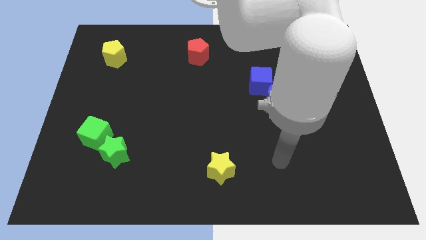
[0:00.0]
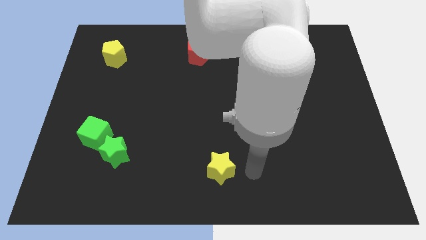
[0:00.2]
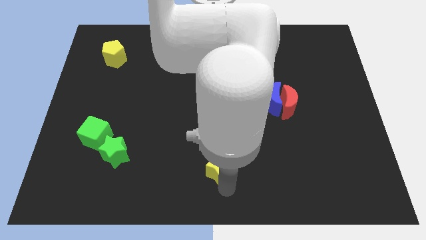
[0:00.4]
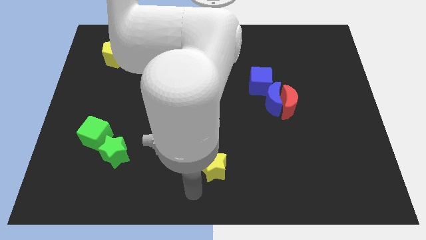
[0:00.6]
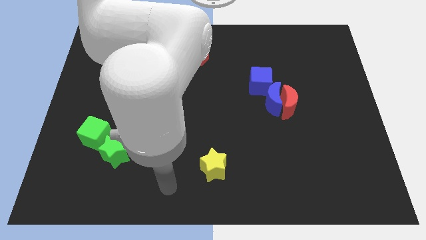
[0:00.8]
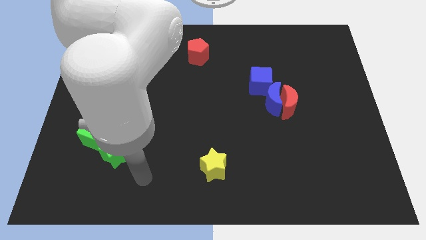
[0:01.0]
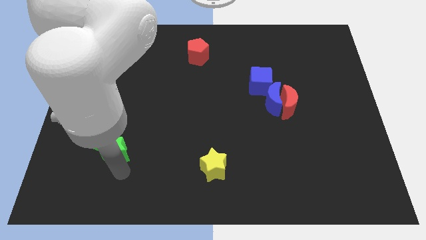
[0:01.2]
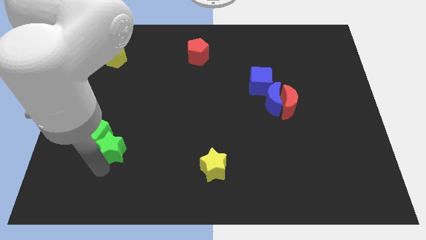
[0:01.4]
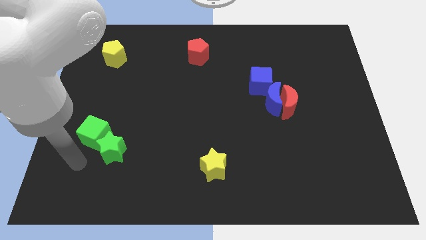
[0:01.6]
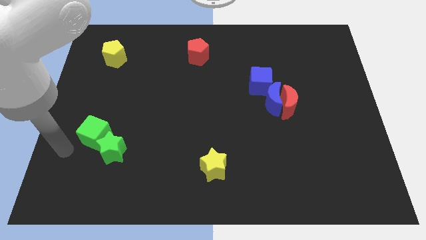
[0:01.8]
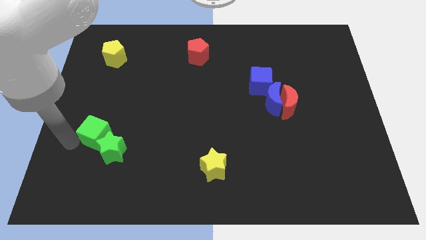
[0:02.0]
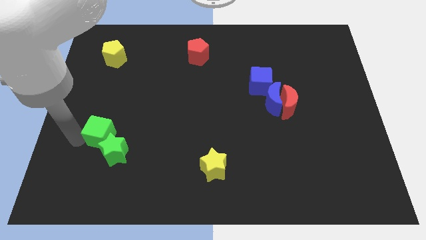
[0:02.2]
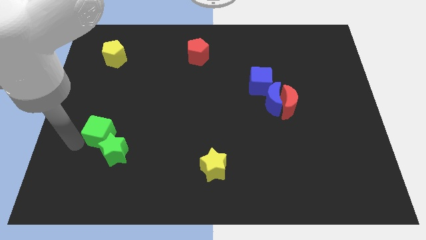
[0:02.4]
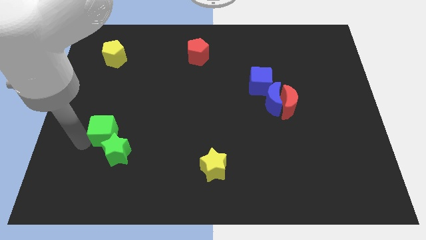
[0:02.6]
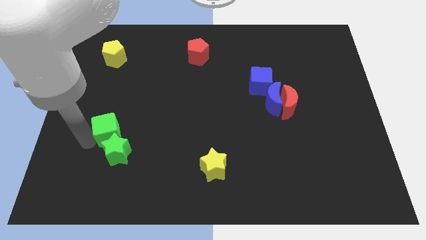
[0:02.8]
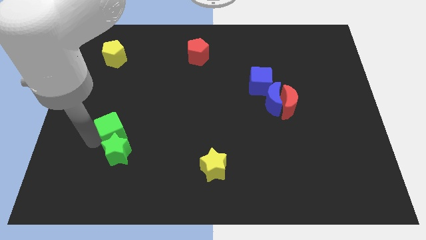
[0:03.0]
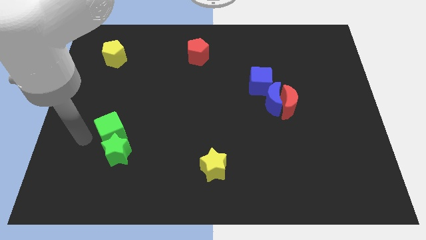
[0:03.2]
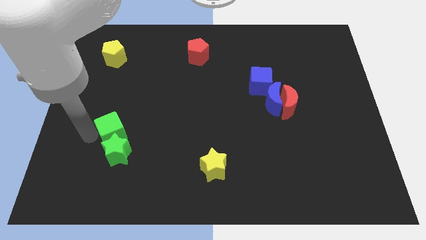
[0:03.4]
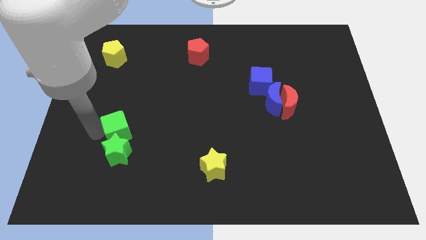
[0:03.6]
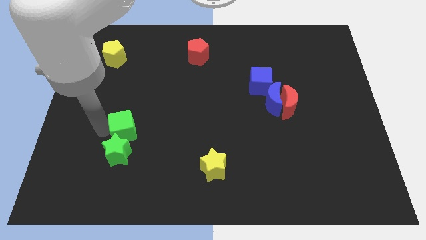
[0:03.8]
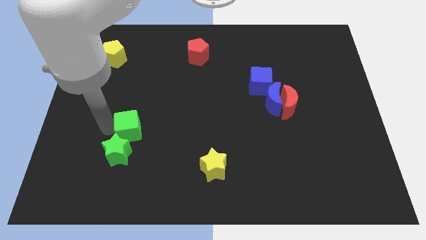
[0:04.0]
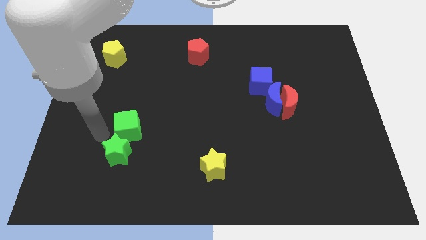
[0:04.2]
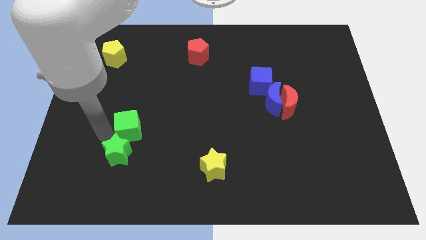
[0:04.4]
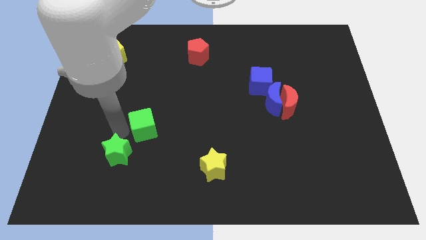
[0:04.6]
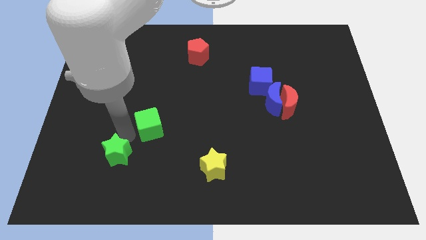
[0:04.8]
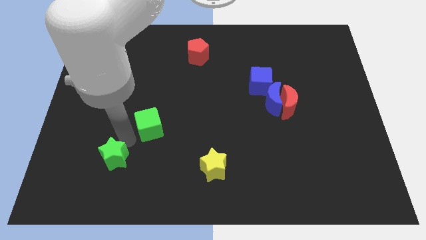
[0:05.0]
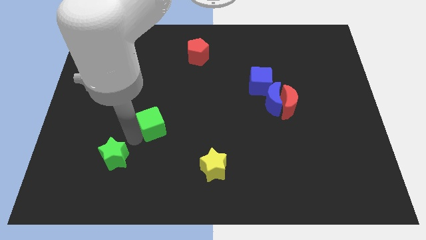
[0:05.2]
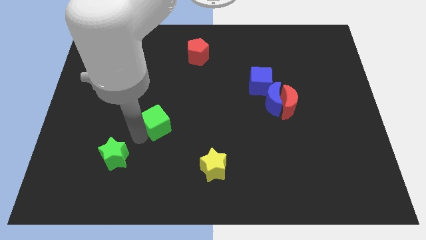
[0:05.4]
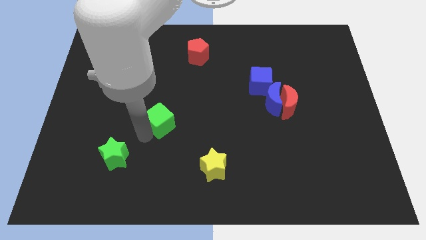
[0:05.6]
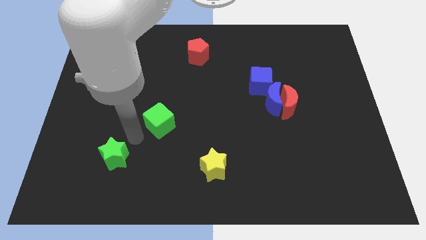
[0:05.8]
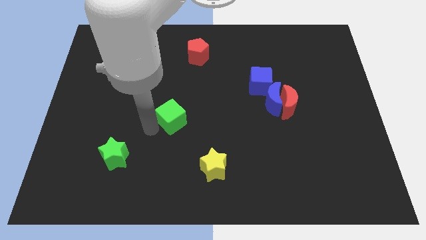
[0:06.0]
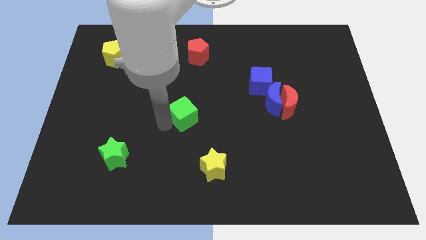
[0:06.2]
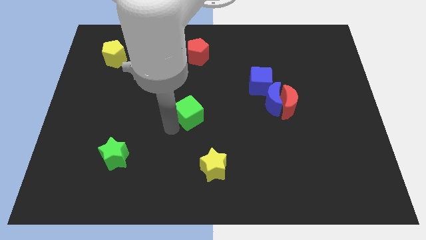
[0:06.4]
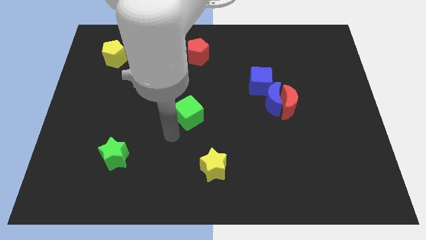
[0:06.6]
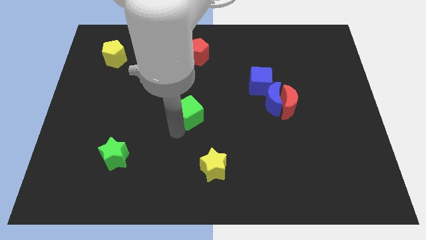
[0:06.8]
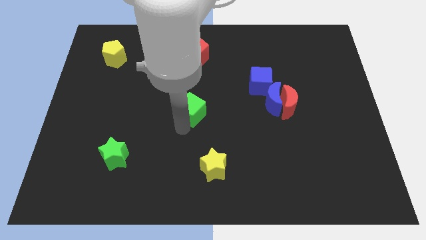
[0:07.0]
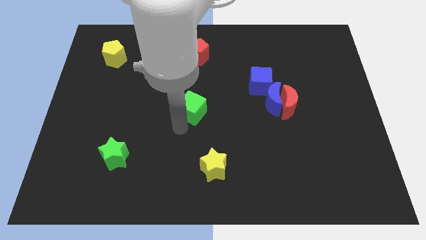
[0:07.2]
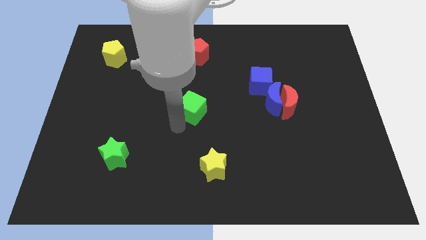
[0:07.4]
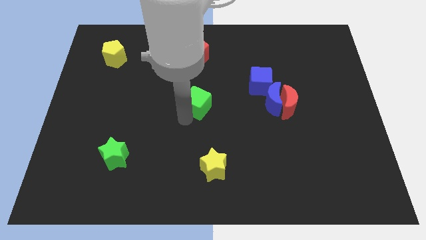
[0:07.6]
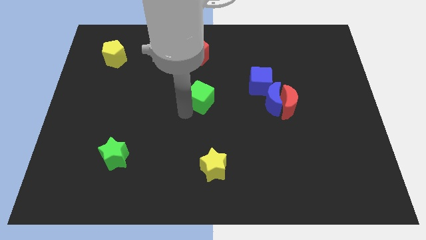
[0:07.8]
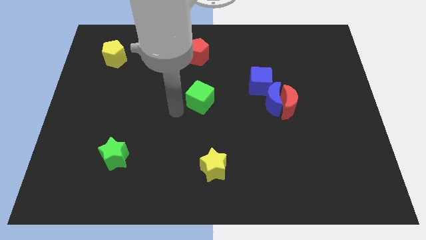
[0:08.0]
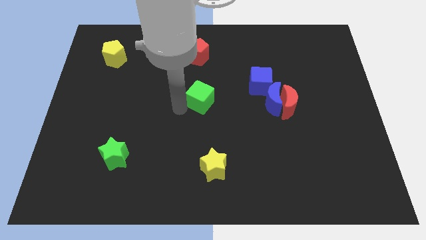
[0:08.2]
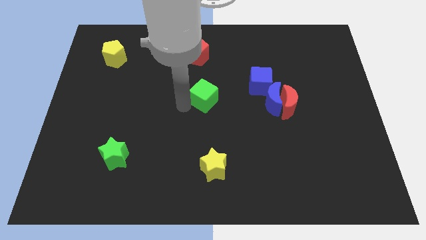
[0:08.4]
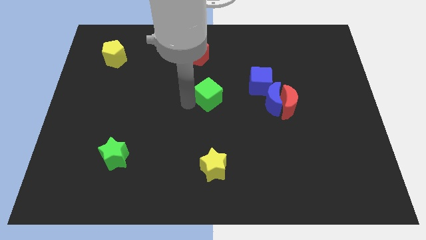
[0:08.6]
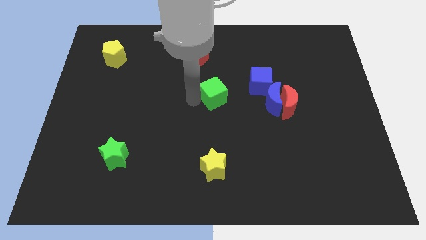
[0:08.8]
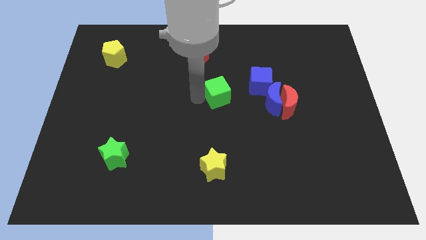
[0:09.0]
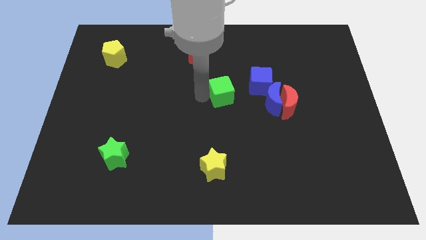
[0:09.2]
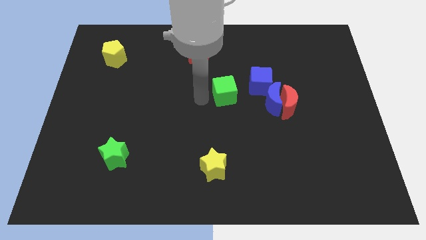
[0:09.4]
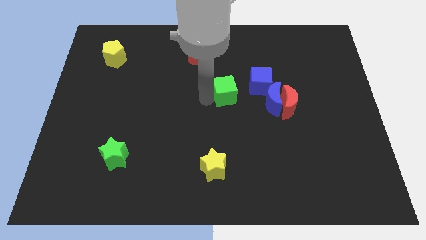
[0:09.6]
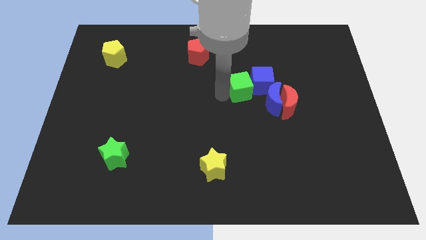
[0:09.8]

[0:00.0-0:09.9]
push the green cube towards the blue cube

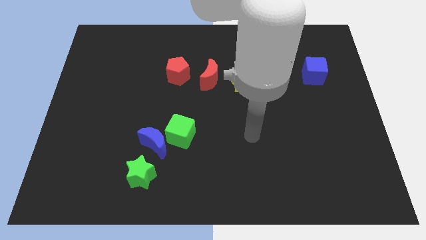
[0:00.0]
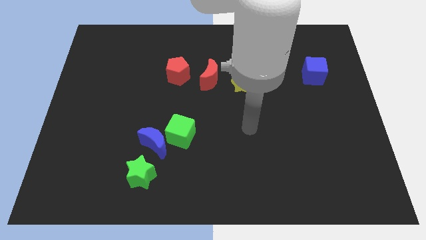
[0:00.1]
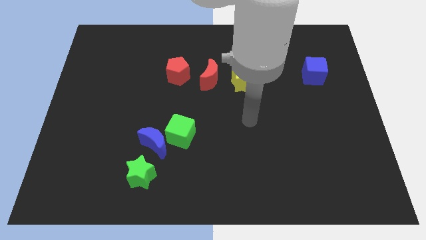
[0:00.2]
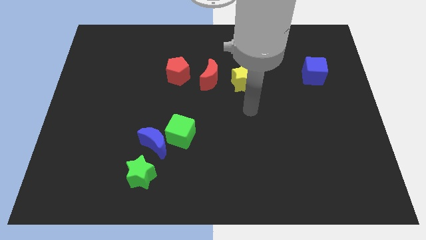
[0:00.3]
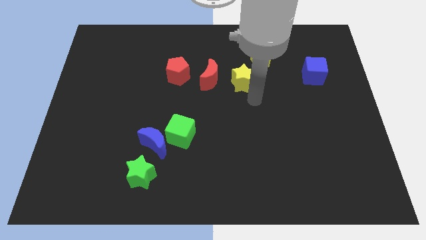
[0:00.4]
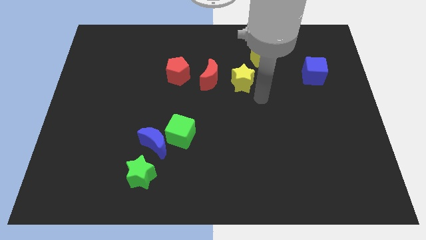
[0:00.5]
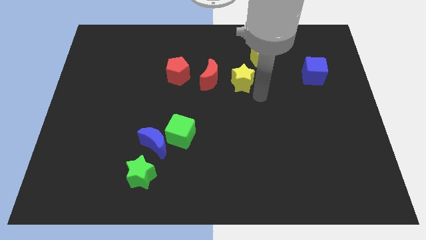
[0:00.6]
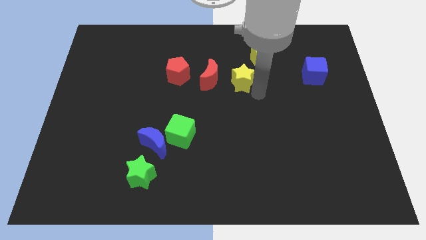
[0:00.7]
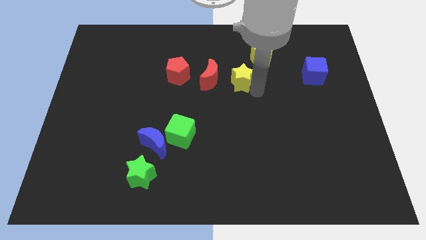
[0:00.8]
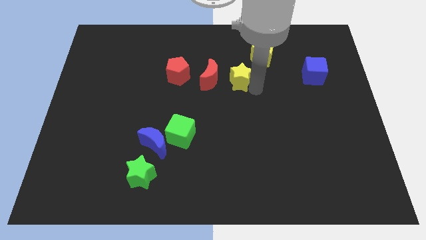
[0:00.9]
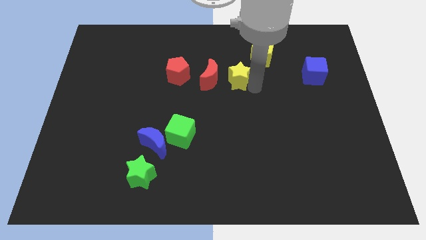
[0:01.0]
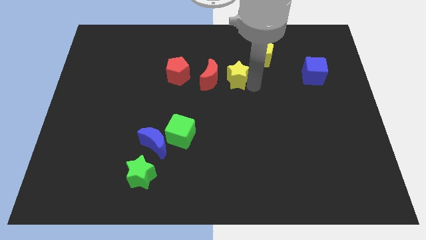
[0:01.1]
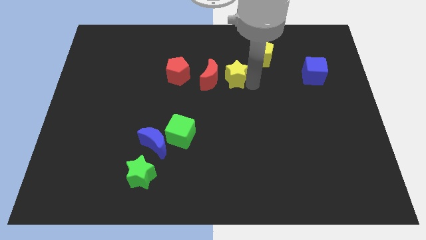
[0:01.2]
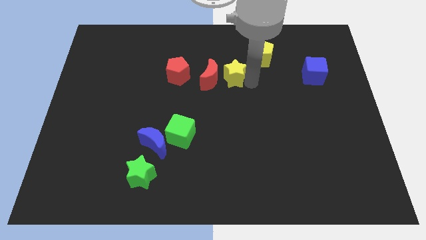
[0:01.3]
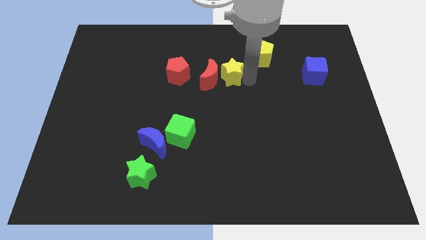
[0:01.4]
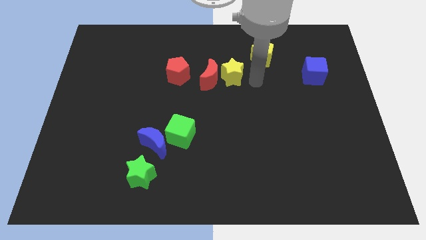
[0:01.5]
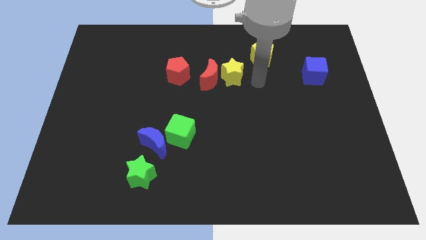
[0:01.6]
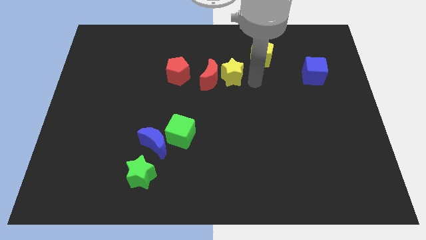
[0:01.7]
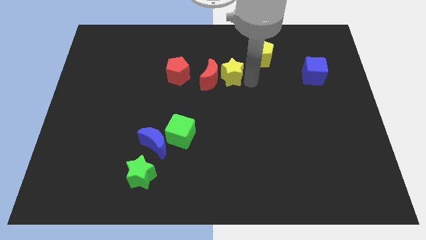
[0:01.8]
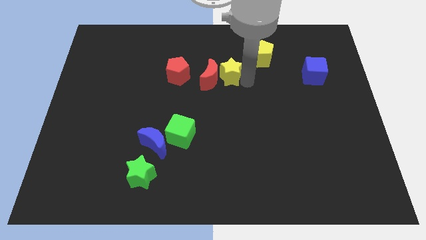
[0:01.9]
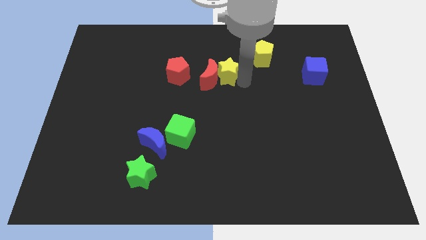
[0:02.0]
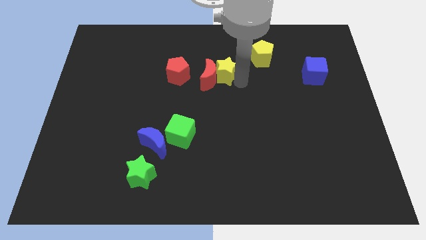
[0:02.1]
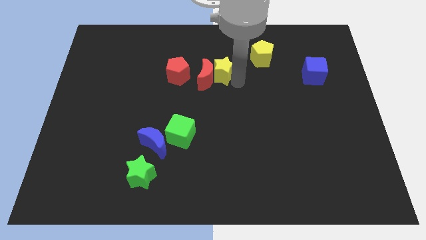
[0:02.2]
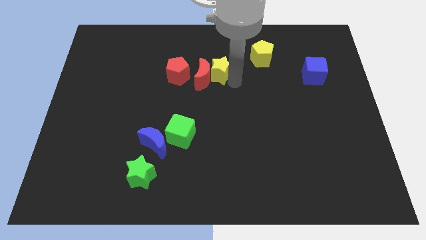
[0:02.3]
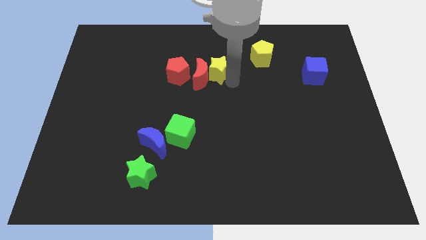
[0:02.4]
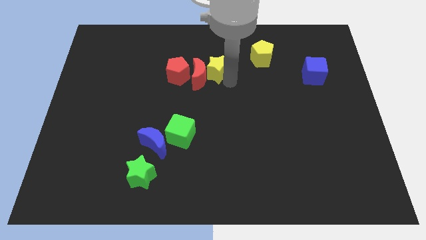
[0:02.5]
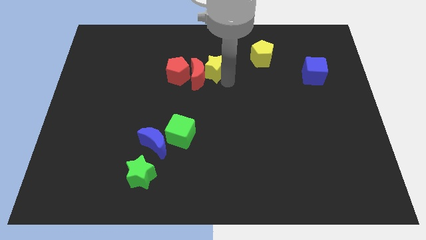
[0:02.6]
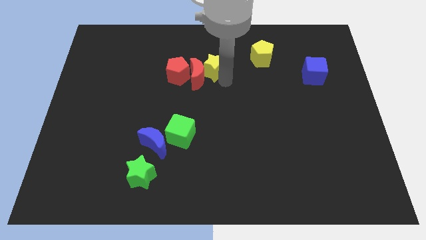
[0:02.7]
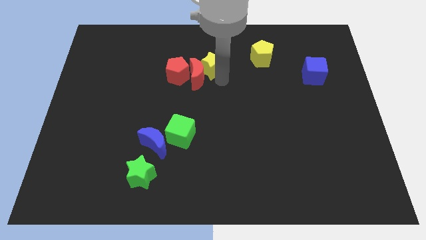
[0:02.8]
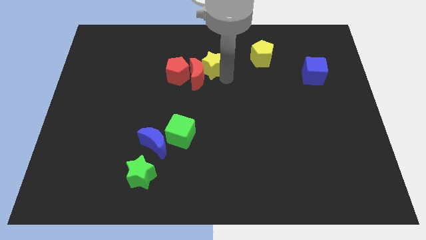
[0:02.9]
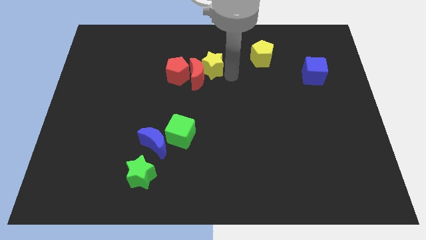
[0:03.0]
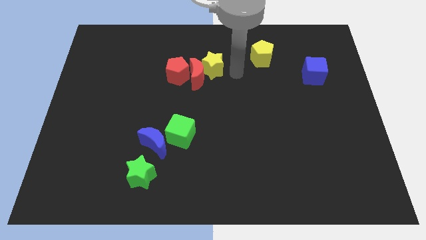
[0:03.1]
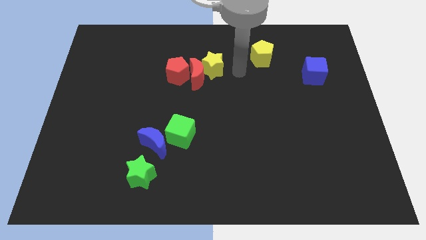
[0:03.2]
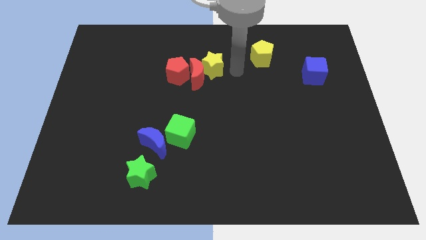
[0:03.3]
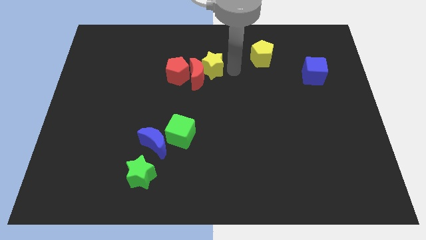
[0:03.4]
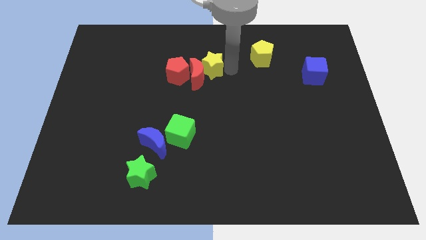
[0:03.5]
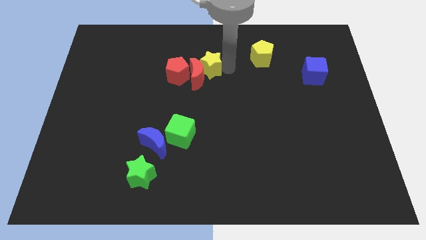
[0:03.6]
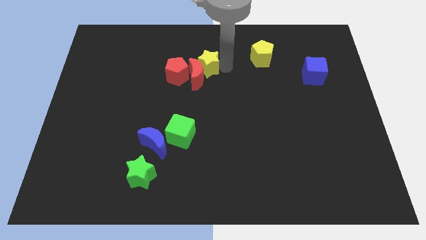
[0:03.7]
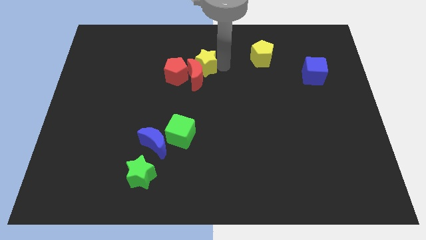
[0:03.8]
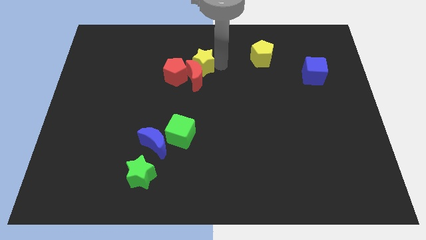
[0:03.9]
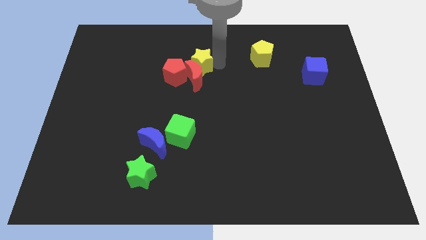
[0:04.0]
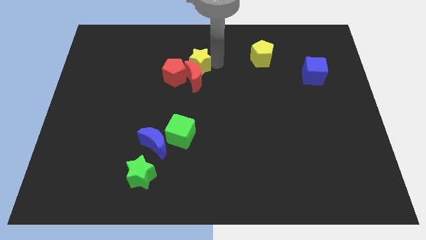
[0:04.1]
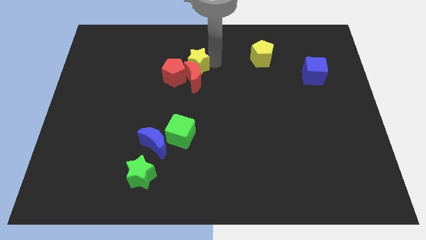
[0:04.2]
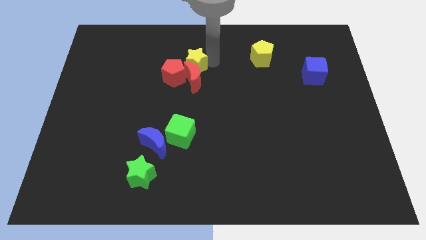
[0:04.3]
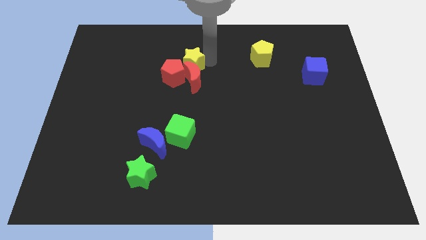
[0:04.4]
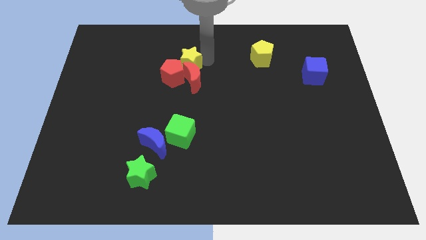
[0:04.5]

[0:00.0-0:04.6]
move the yellow star towards the red pentagon
